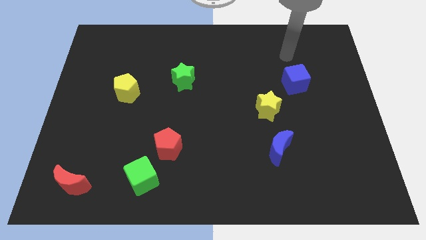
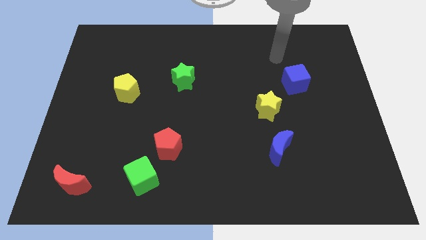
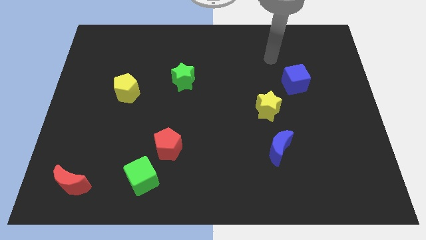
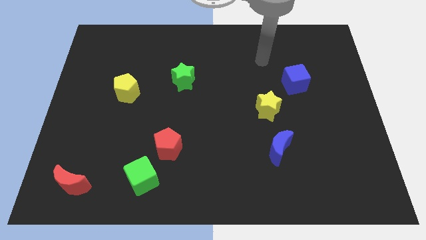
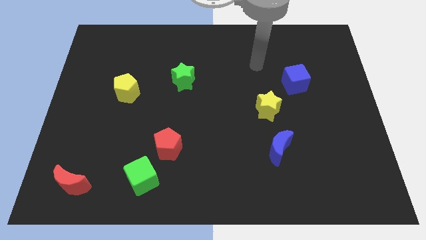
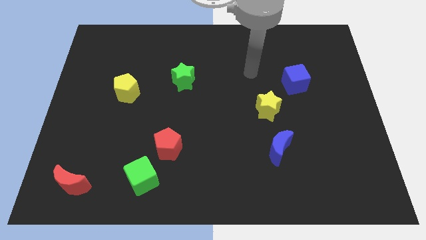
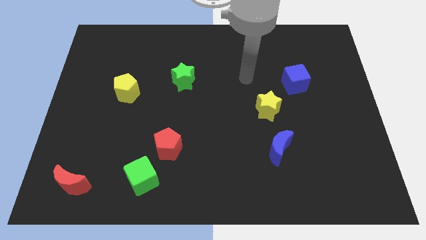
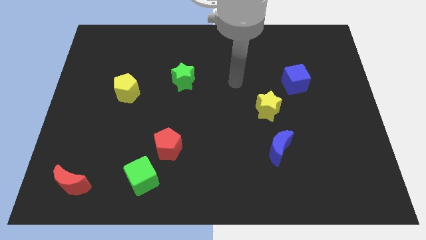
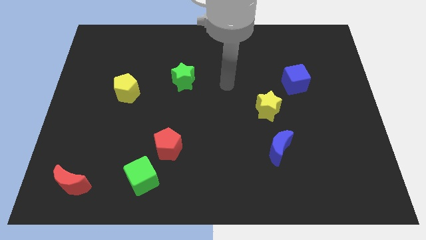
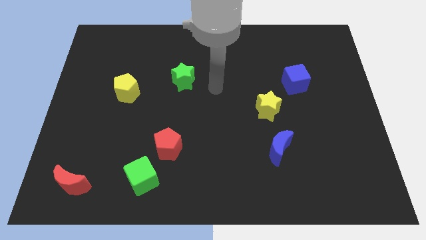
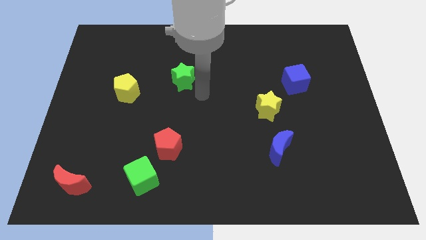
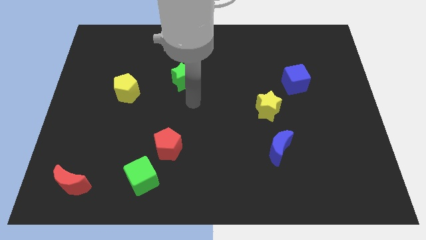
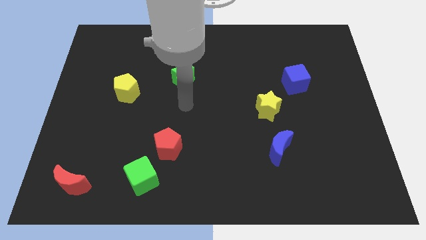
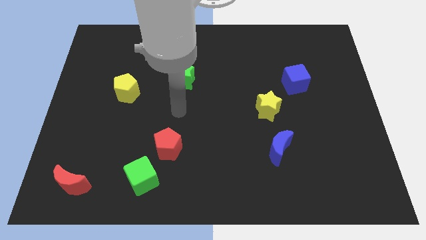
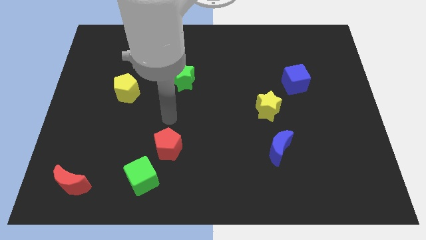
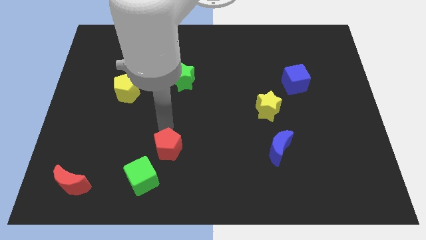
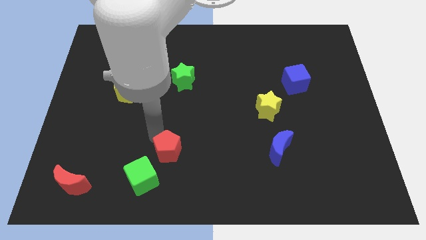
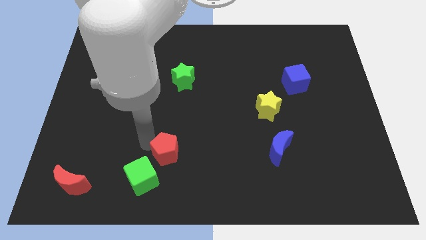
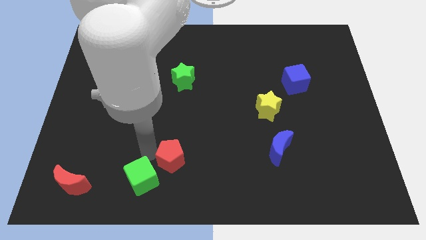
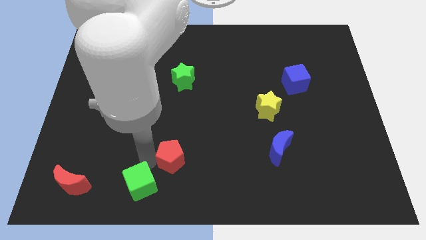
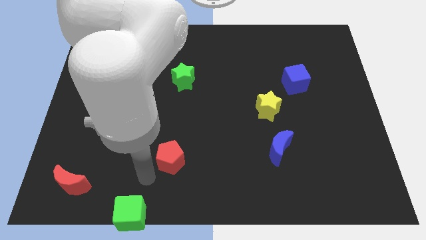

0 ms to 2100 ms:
pull the red pentagon apart from the green cube

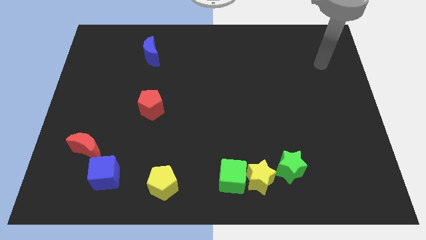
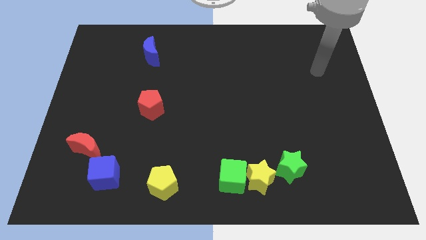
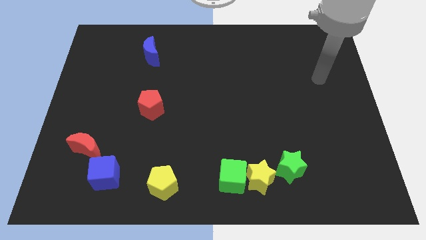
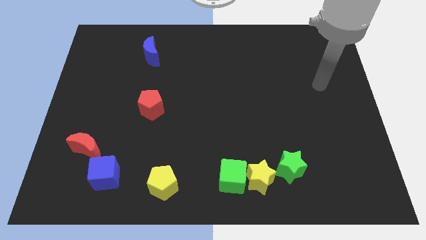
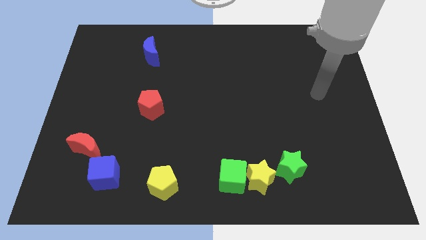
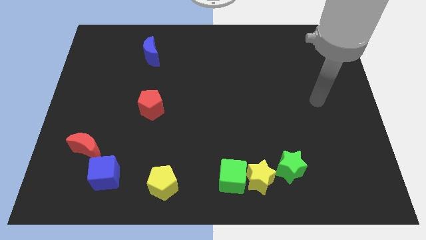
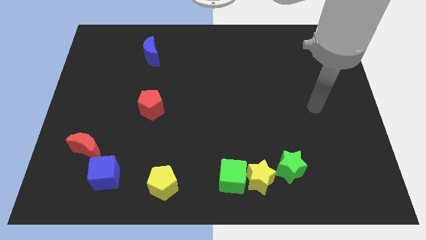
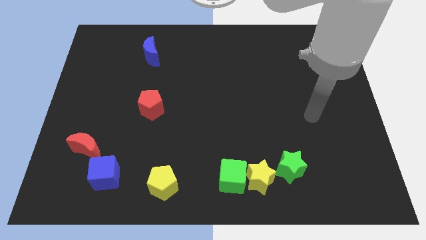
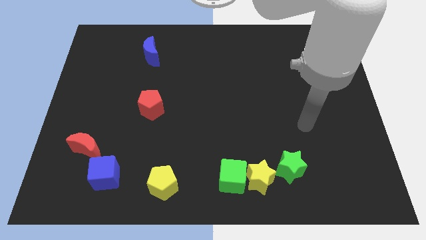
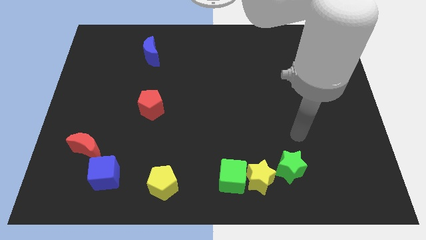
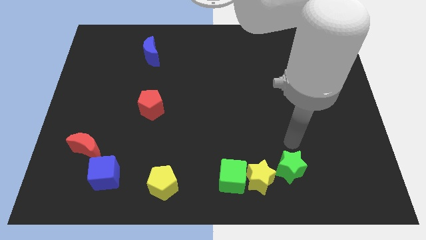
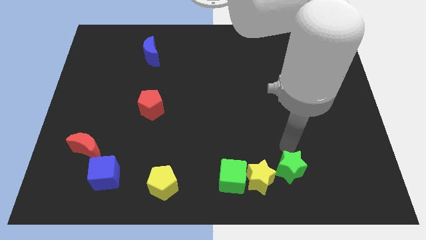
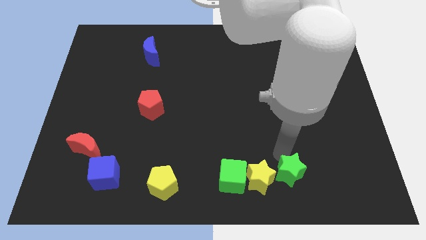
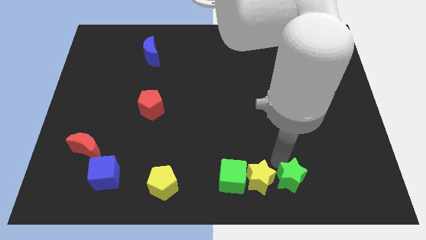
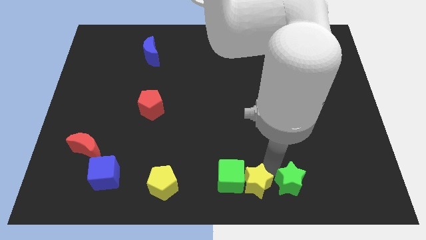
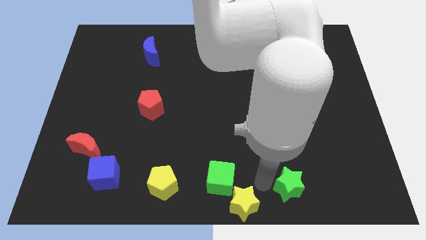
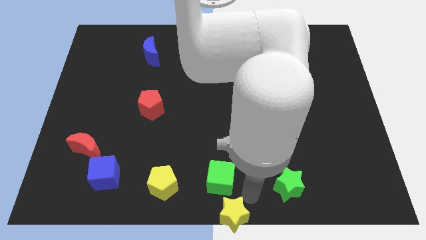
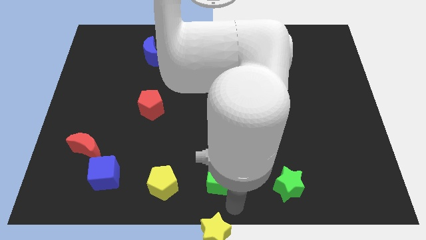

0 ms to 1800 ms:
separate the green cube from the yellow star

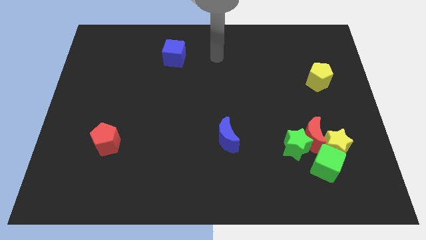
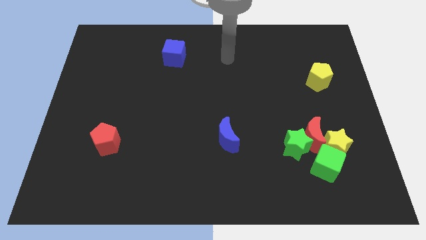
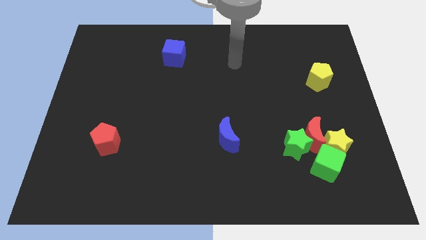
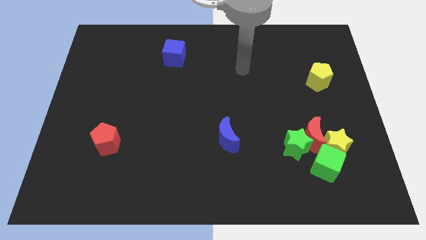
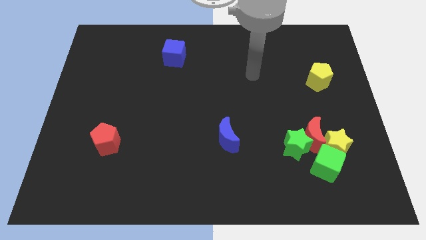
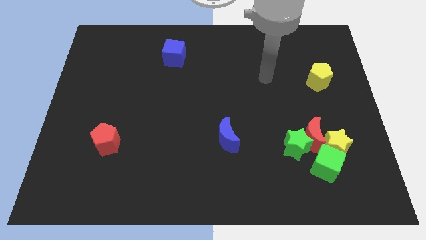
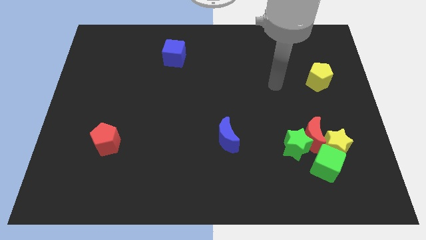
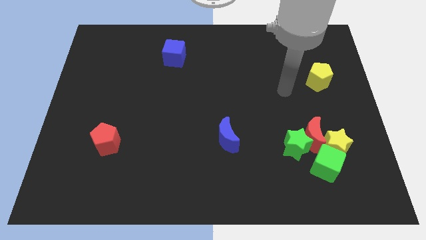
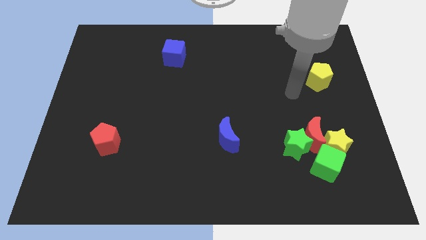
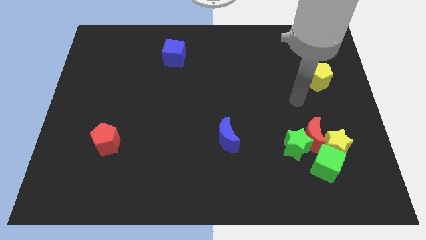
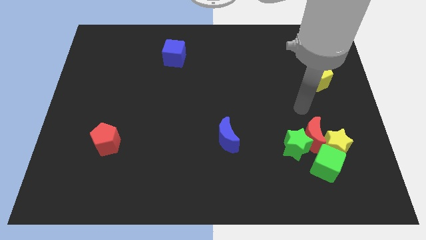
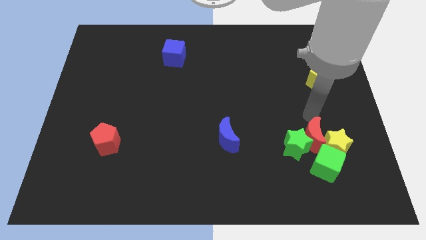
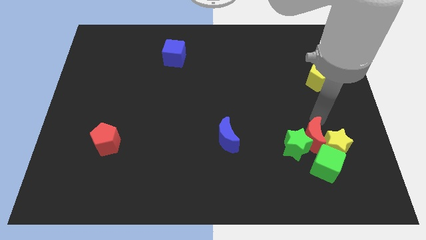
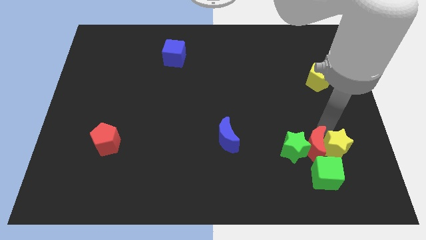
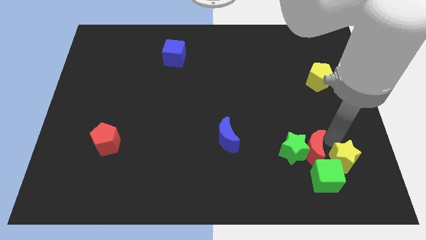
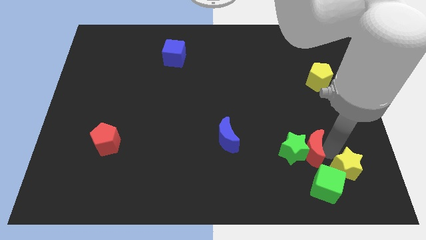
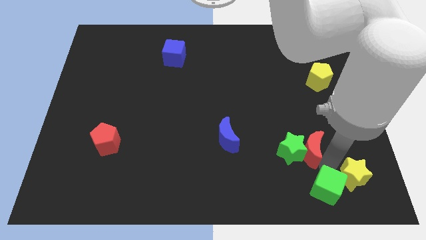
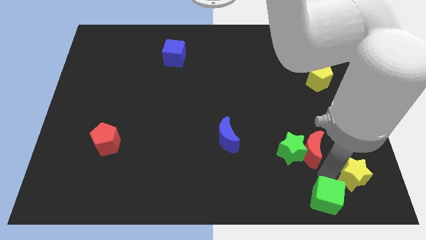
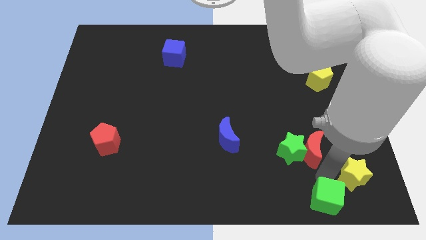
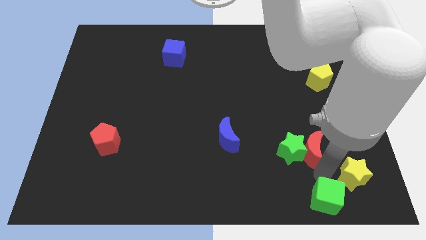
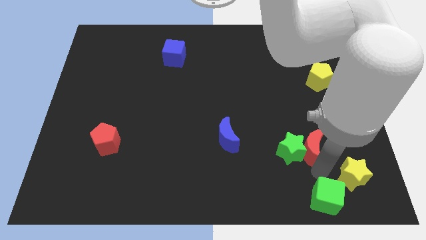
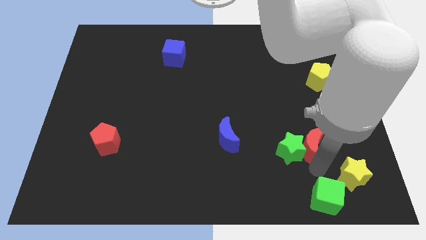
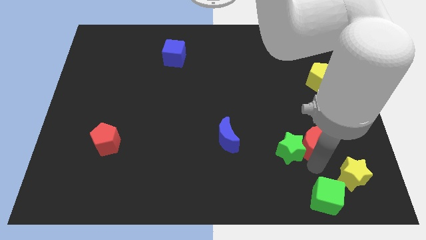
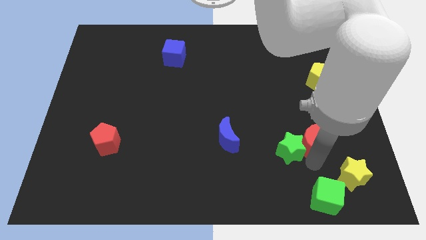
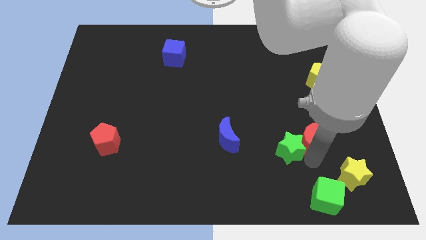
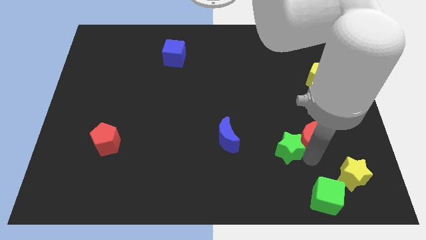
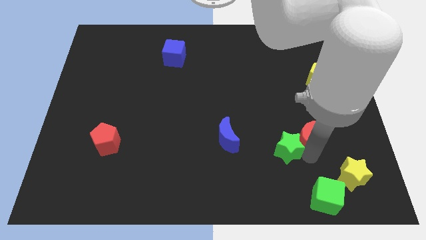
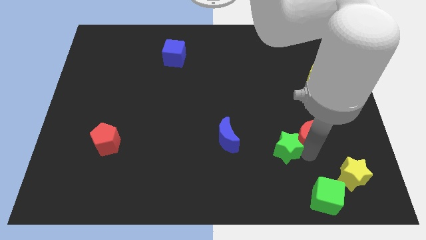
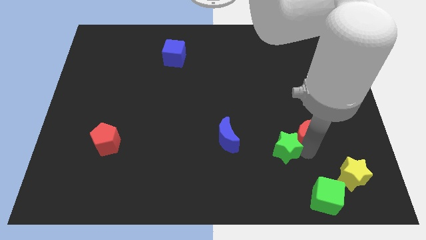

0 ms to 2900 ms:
separate the red moon from the clump

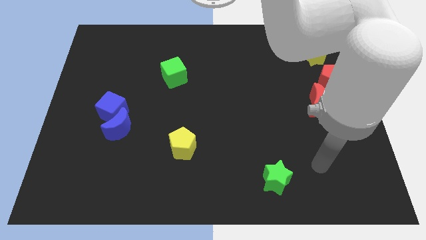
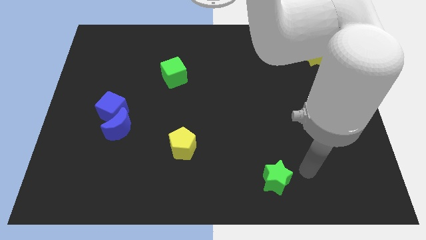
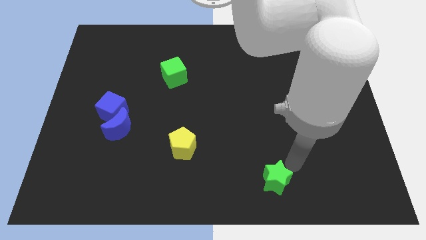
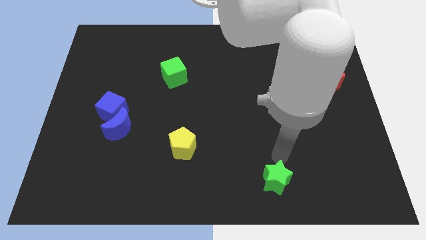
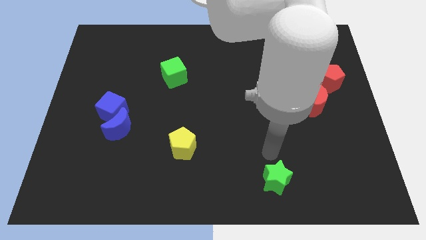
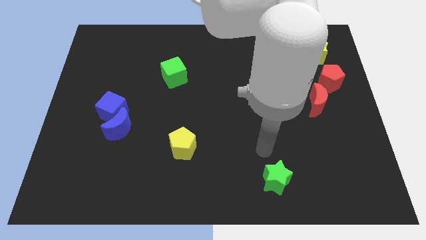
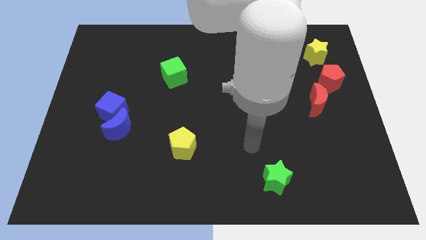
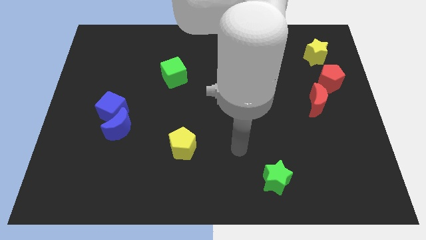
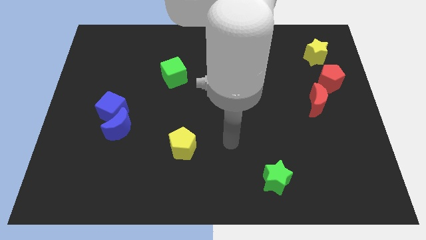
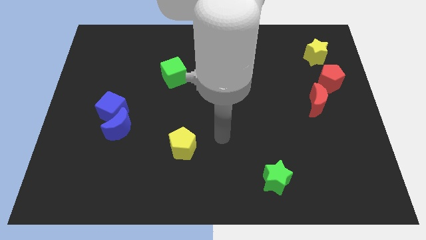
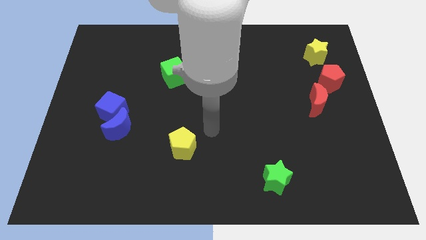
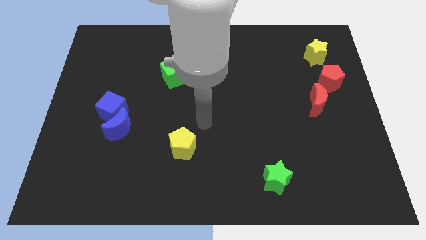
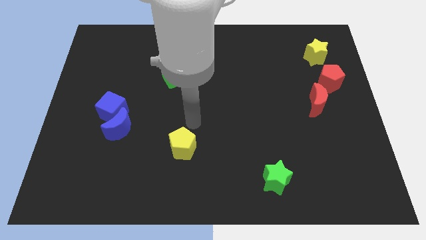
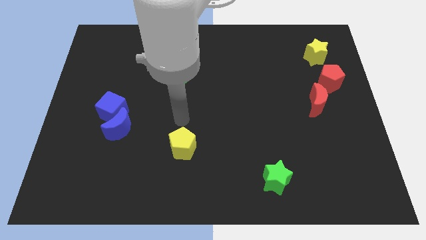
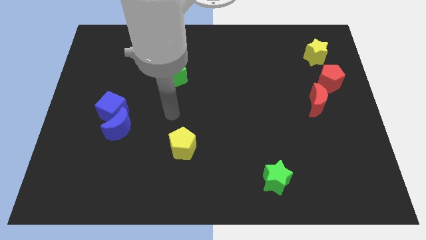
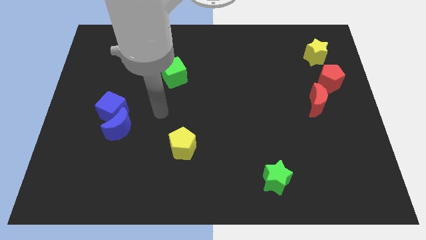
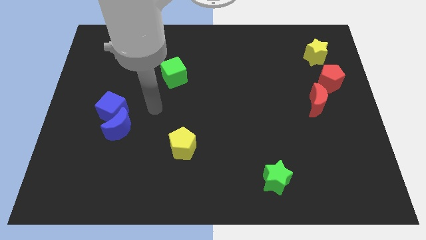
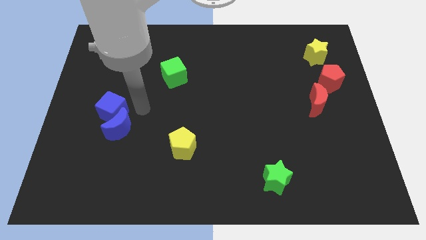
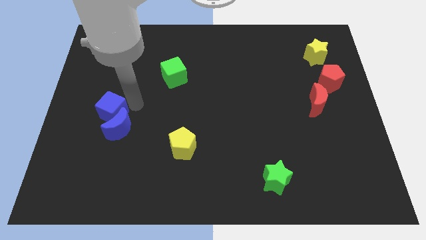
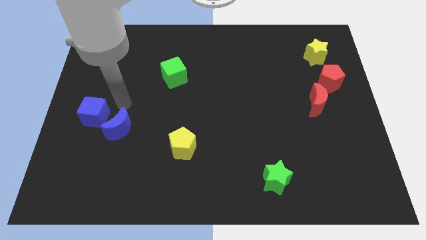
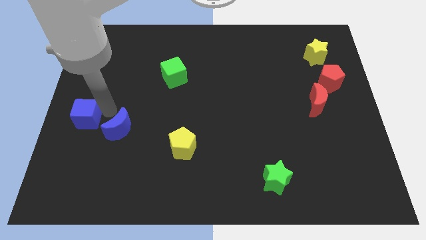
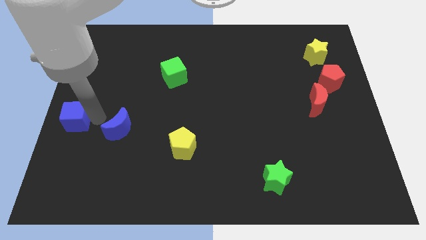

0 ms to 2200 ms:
move the blue moon away from the blue cube

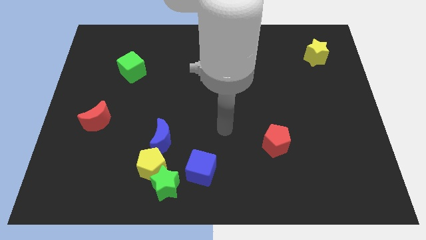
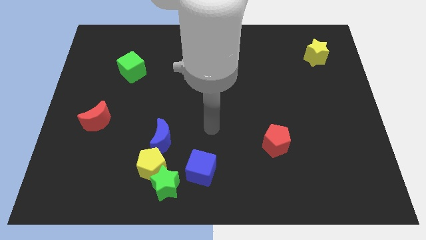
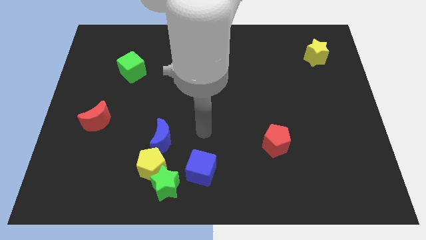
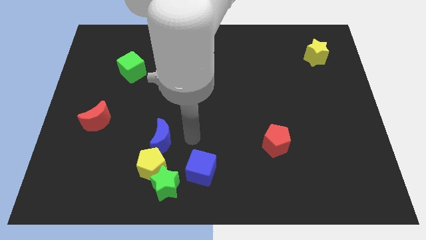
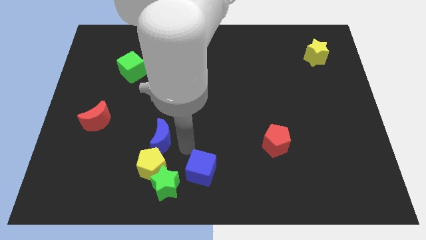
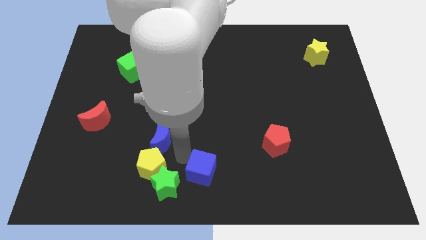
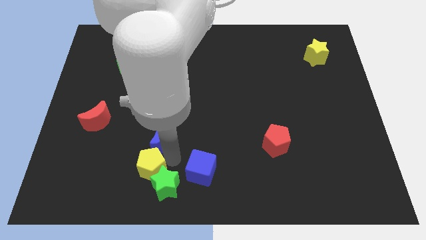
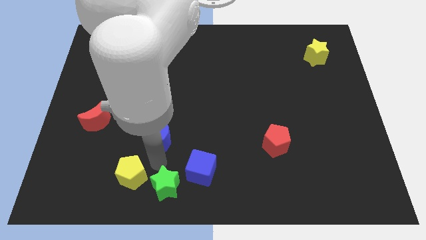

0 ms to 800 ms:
separate the blue moon from the yellow pentagon
